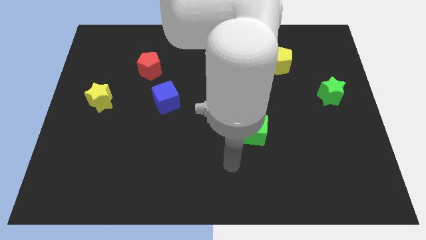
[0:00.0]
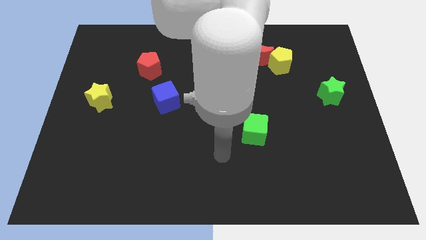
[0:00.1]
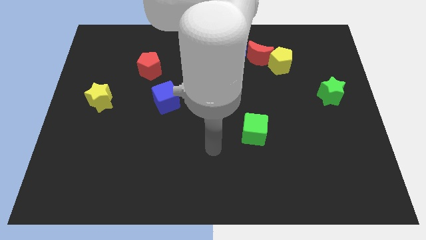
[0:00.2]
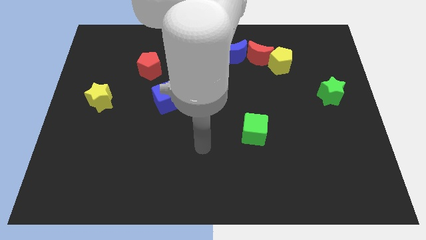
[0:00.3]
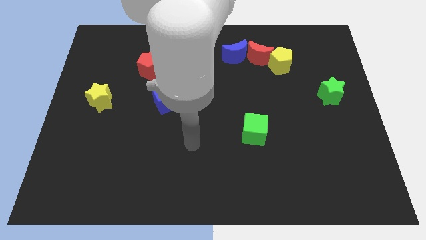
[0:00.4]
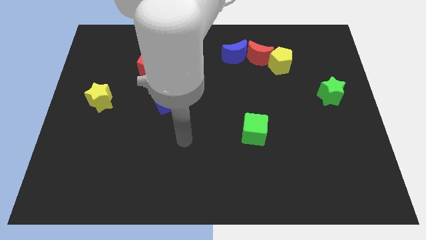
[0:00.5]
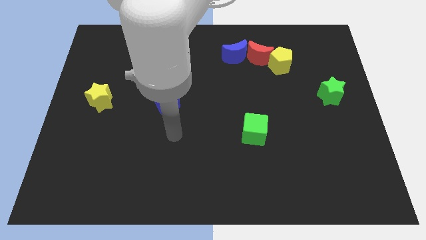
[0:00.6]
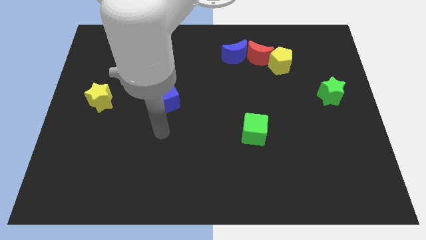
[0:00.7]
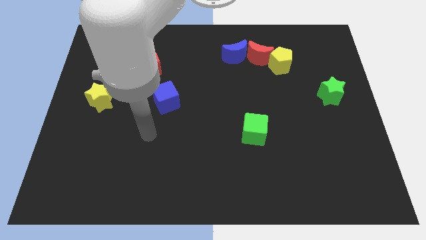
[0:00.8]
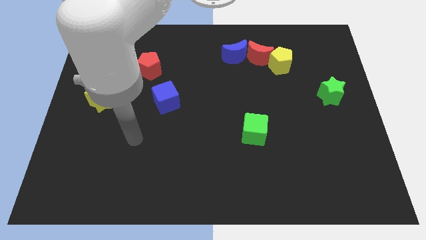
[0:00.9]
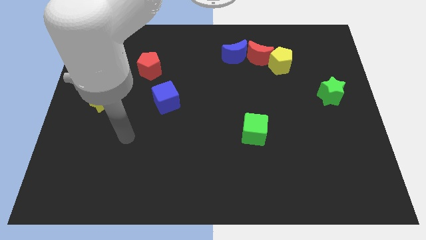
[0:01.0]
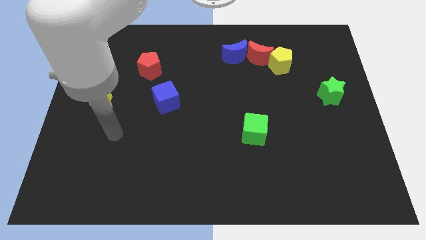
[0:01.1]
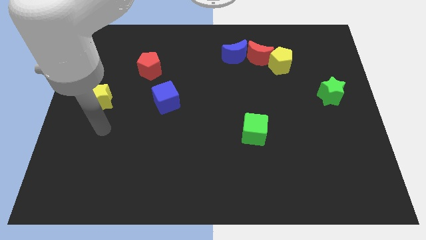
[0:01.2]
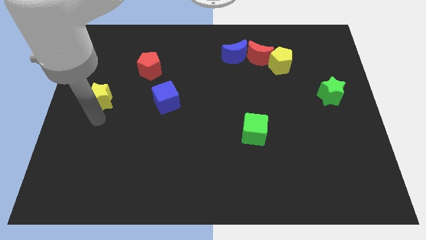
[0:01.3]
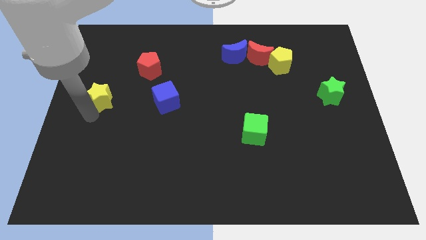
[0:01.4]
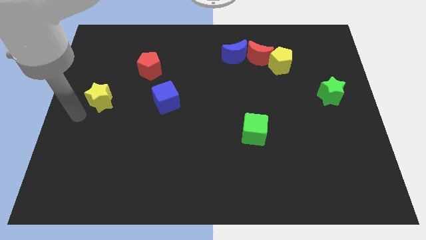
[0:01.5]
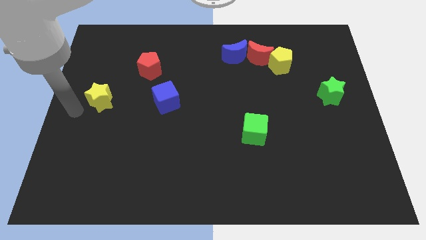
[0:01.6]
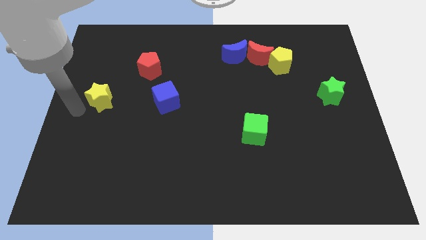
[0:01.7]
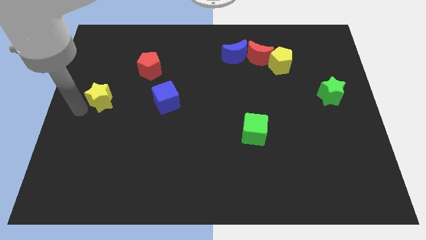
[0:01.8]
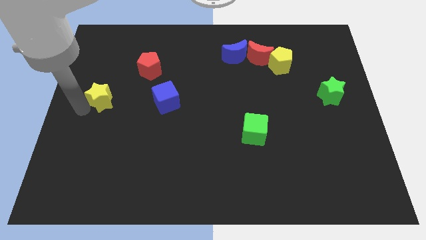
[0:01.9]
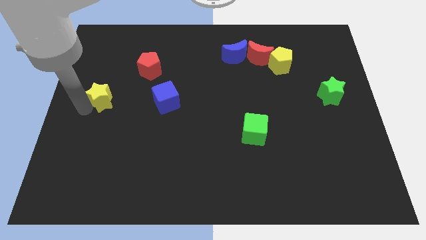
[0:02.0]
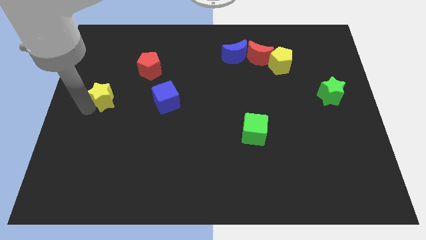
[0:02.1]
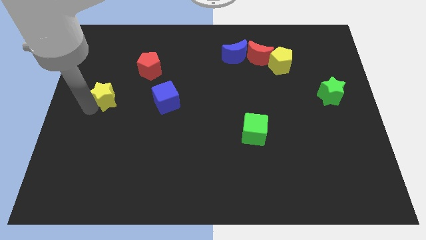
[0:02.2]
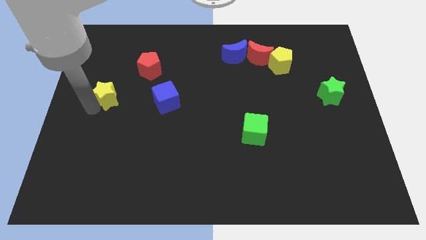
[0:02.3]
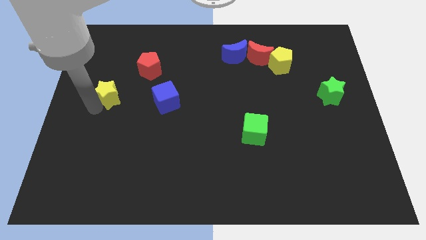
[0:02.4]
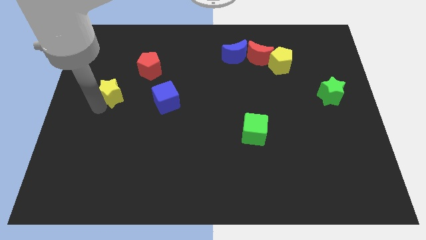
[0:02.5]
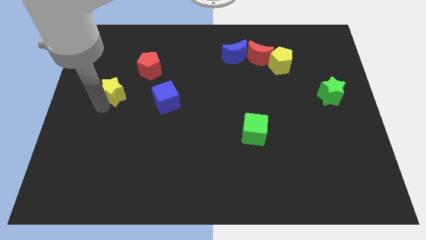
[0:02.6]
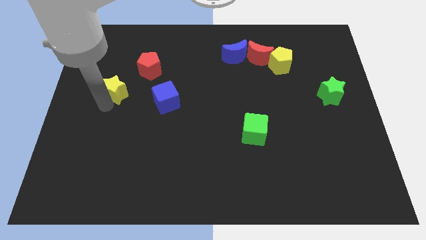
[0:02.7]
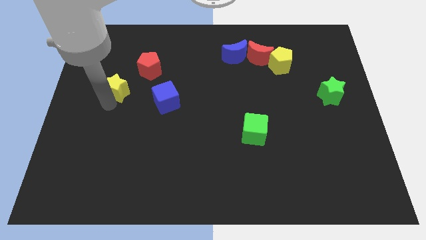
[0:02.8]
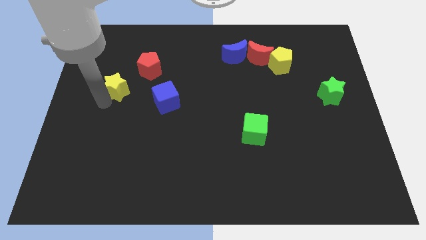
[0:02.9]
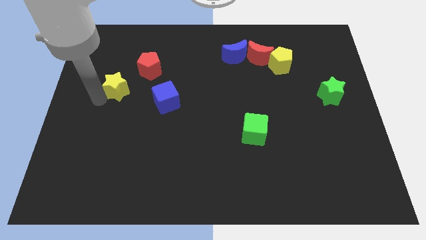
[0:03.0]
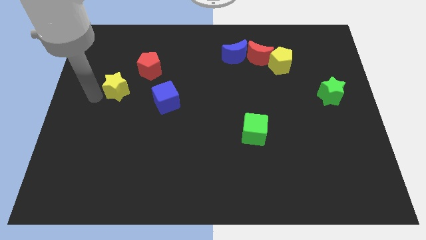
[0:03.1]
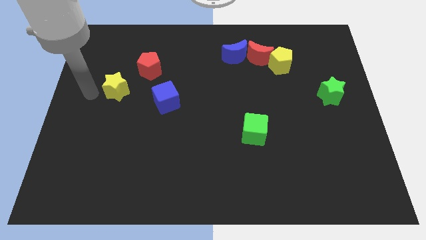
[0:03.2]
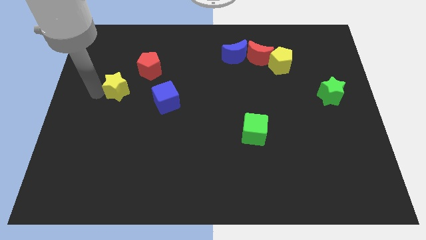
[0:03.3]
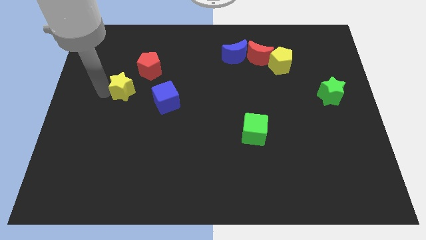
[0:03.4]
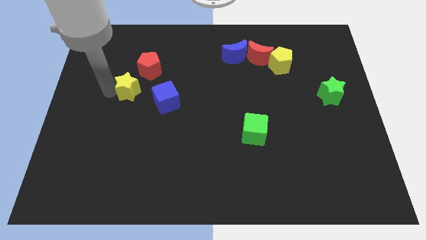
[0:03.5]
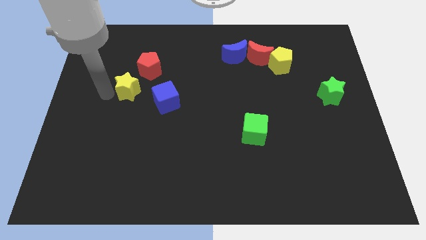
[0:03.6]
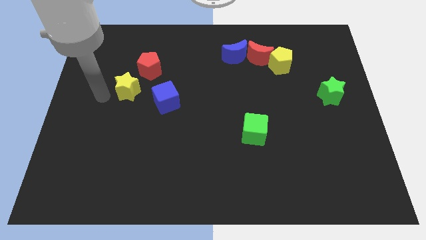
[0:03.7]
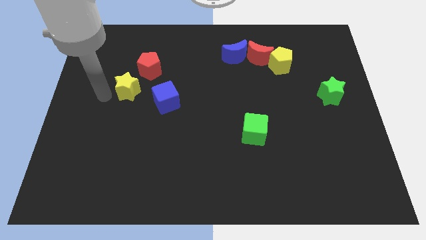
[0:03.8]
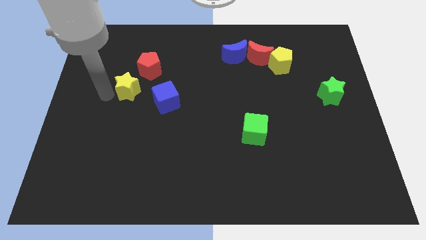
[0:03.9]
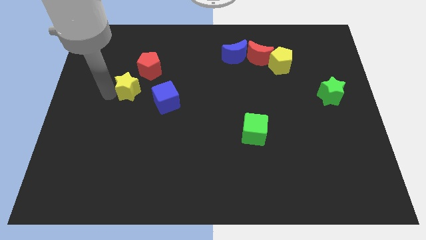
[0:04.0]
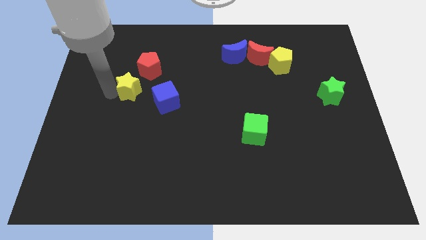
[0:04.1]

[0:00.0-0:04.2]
move the yellow star upwards and to the right diagonally a little bit

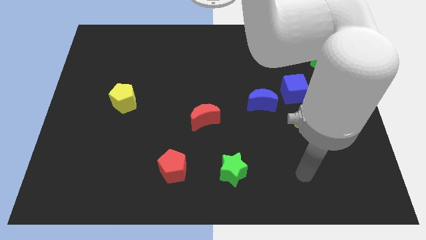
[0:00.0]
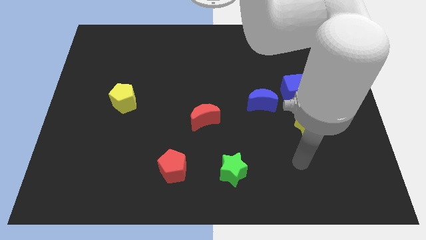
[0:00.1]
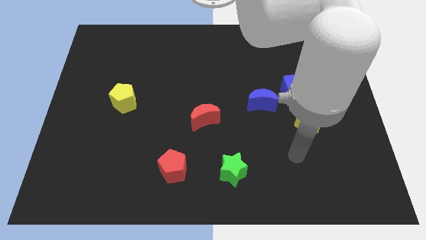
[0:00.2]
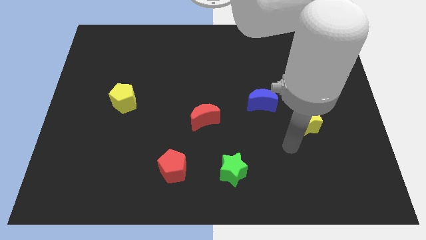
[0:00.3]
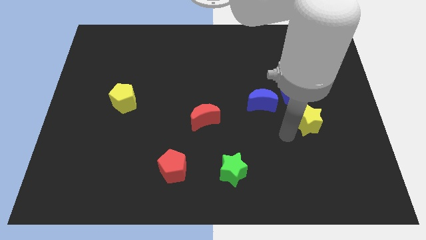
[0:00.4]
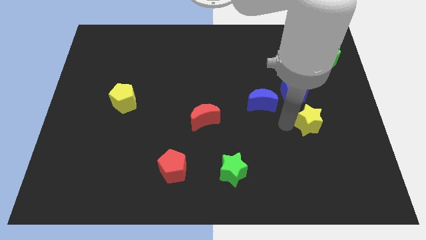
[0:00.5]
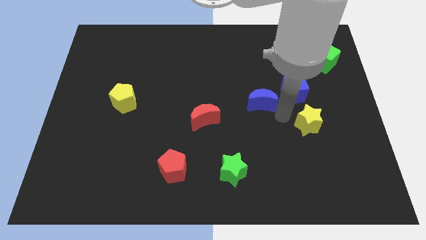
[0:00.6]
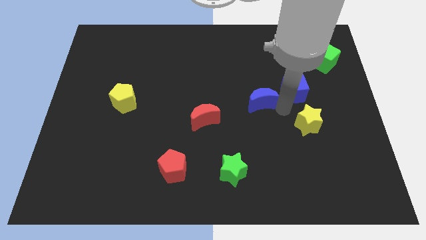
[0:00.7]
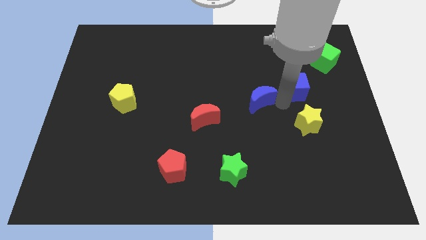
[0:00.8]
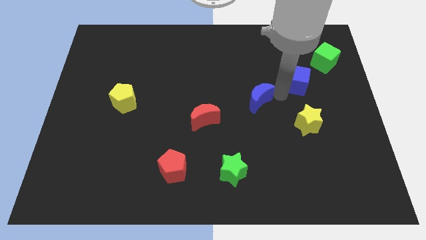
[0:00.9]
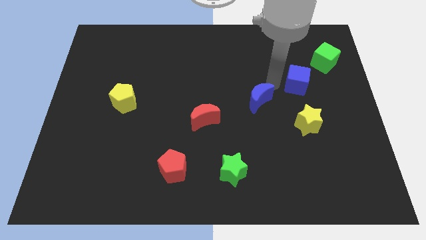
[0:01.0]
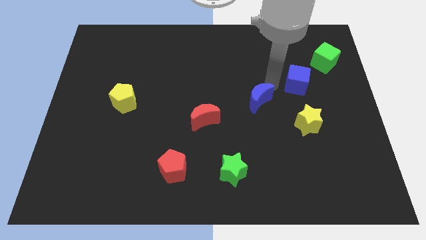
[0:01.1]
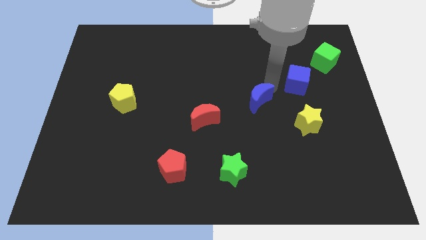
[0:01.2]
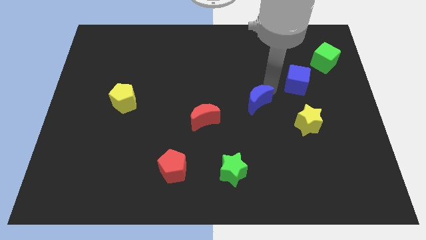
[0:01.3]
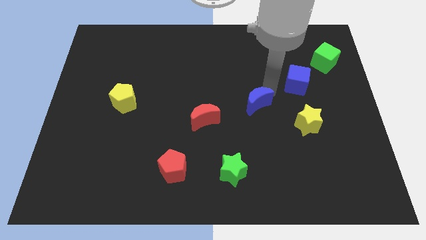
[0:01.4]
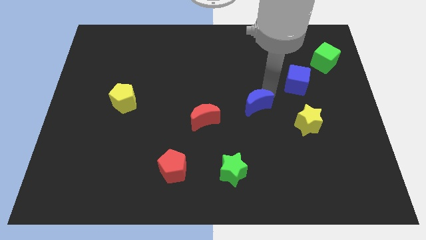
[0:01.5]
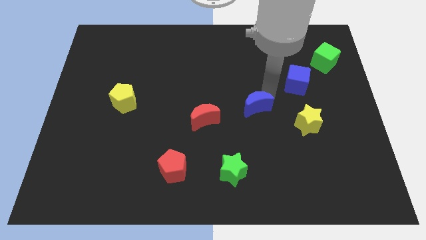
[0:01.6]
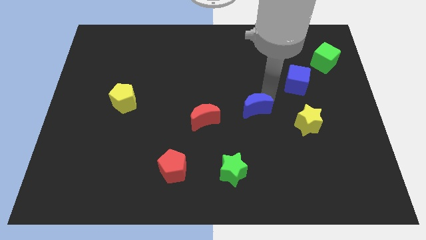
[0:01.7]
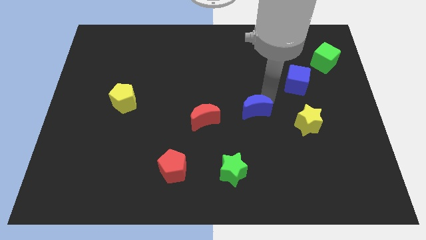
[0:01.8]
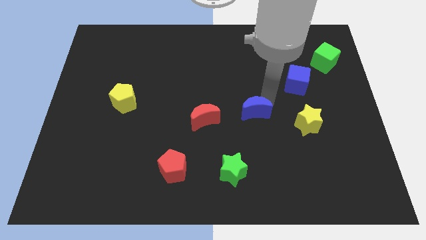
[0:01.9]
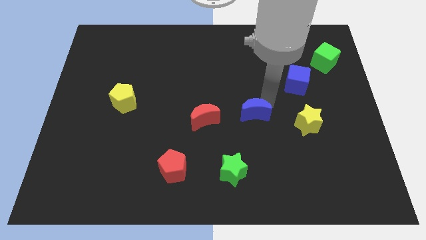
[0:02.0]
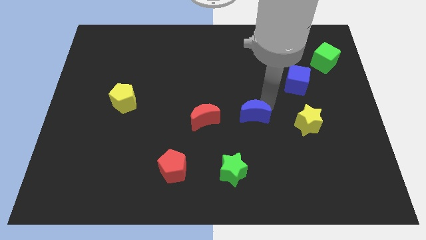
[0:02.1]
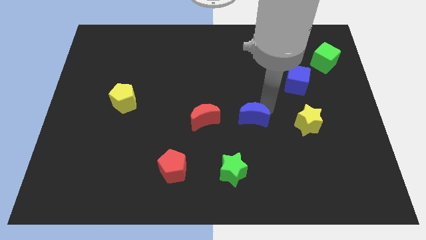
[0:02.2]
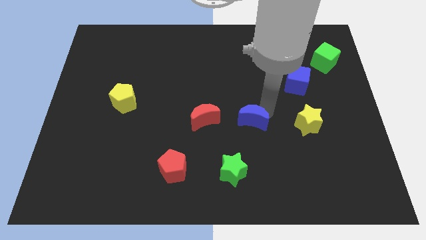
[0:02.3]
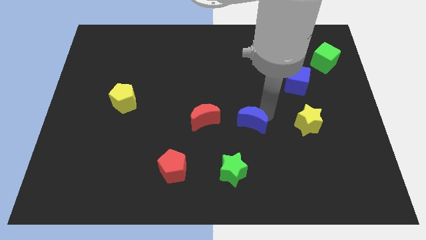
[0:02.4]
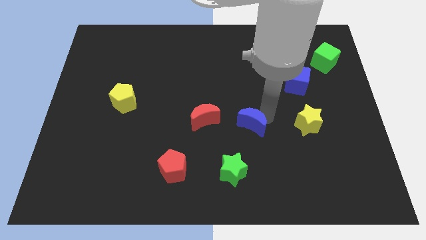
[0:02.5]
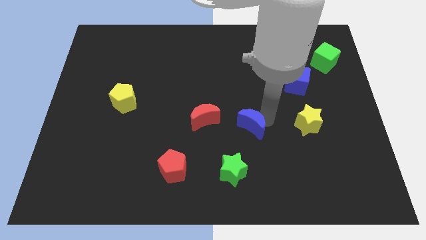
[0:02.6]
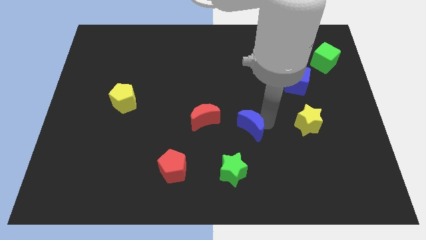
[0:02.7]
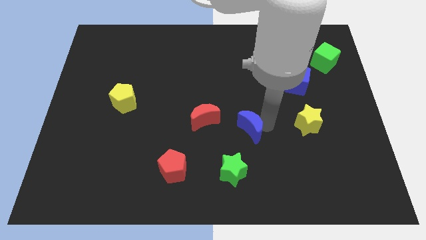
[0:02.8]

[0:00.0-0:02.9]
push the blue moon a little down and then left

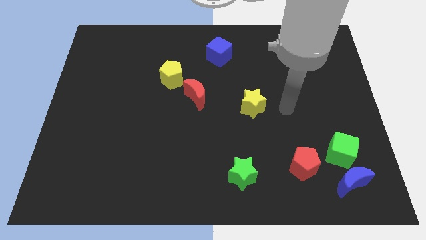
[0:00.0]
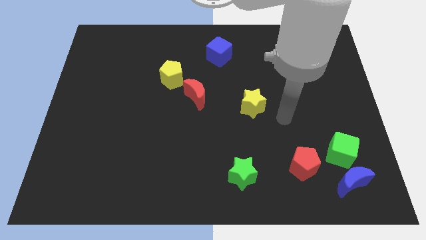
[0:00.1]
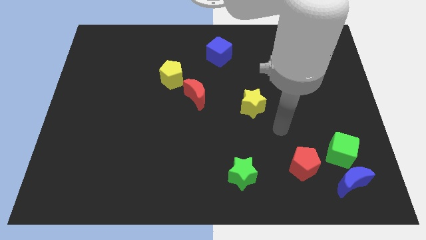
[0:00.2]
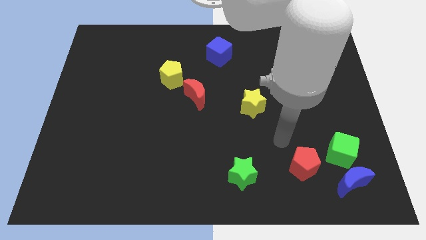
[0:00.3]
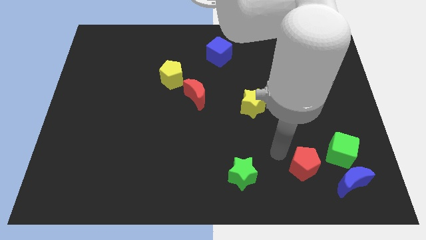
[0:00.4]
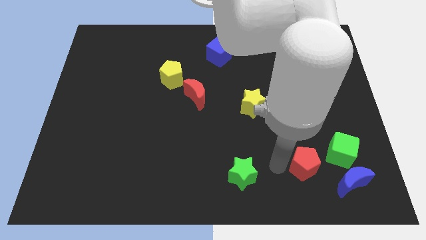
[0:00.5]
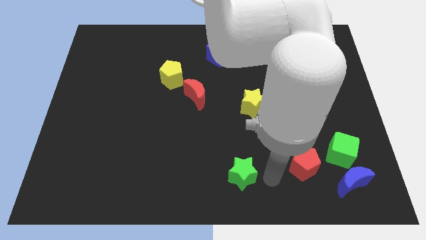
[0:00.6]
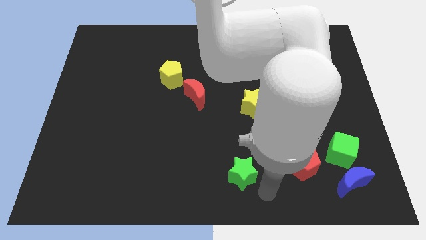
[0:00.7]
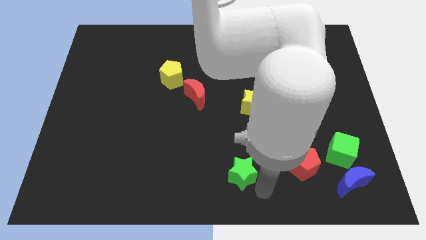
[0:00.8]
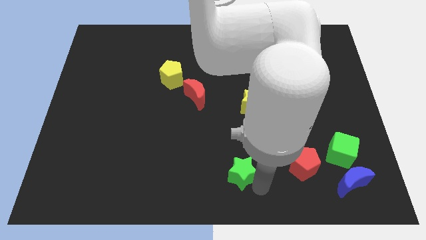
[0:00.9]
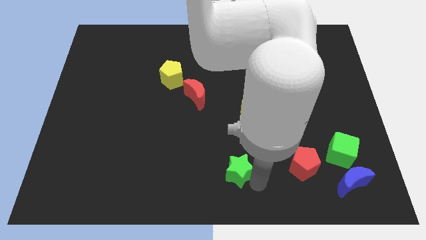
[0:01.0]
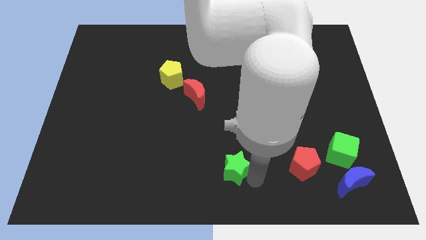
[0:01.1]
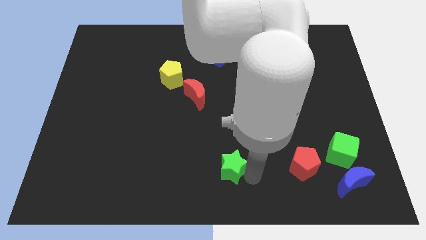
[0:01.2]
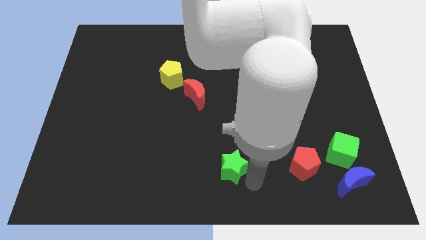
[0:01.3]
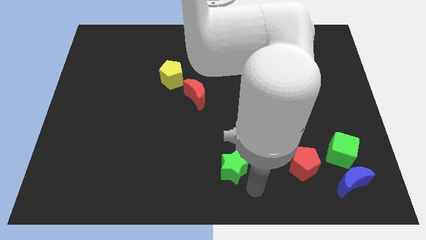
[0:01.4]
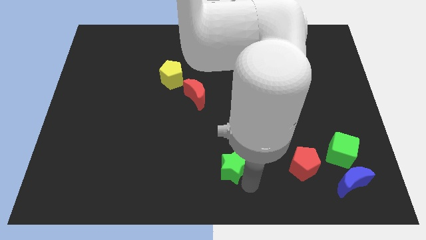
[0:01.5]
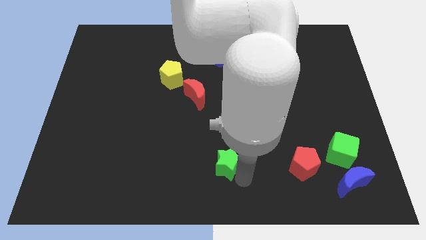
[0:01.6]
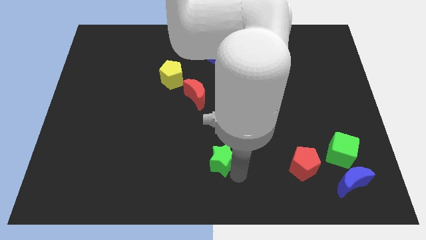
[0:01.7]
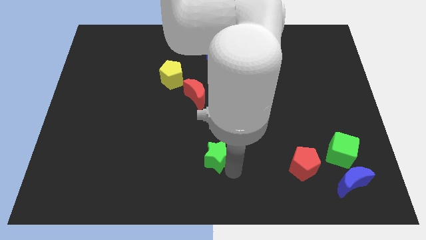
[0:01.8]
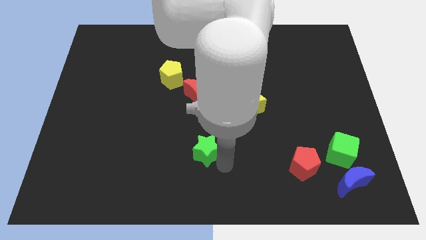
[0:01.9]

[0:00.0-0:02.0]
slightly move the green star up and left diagonally
